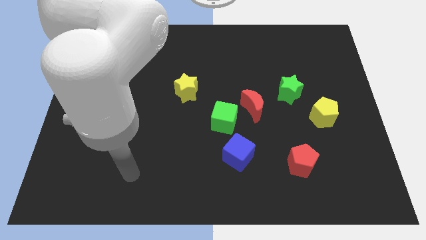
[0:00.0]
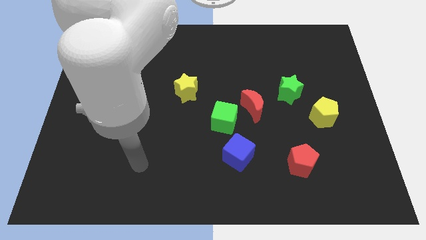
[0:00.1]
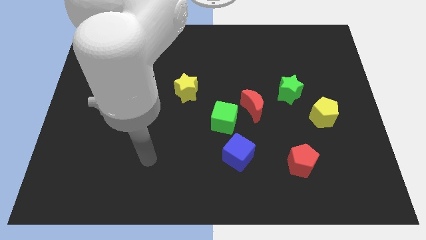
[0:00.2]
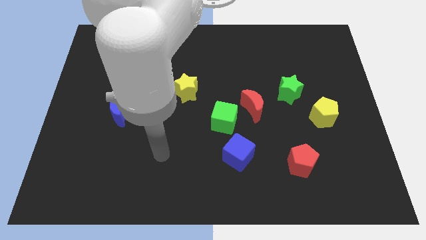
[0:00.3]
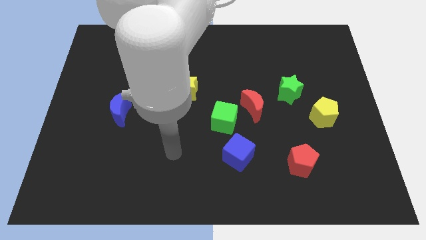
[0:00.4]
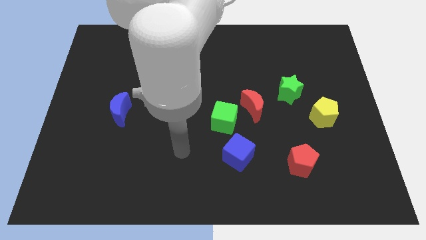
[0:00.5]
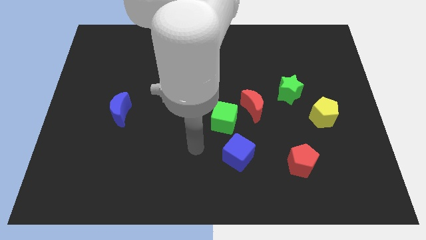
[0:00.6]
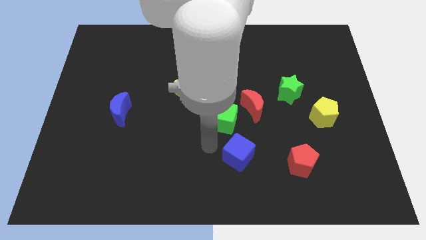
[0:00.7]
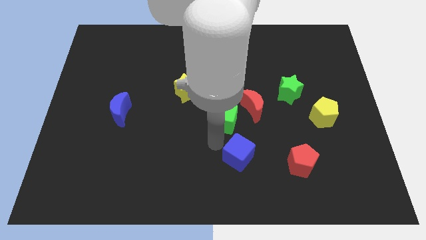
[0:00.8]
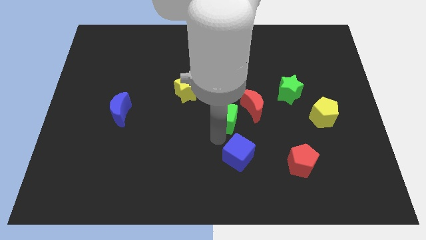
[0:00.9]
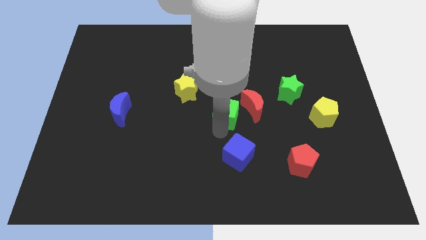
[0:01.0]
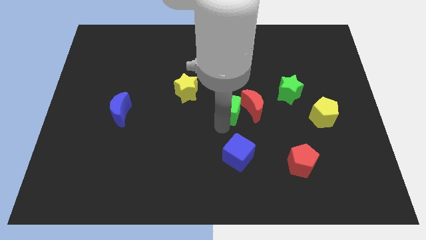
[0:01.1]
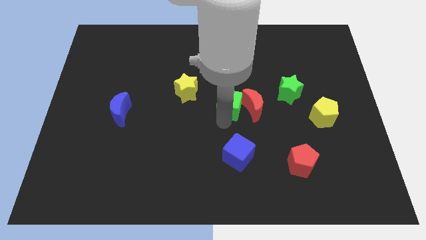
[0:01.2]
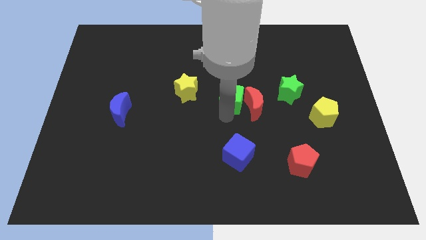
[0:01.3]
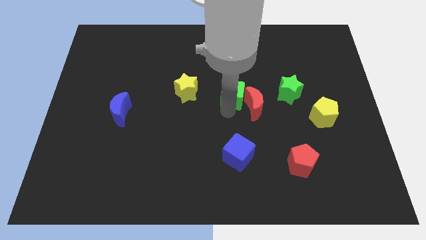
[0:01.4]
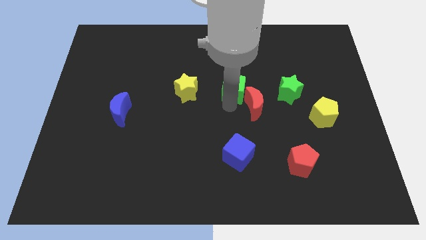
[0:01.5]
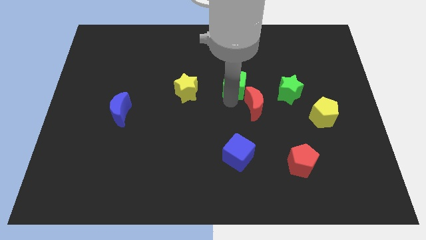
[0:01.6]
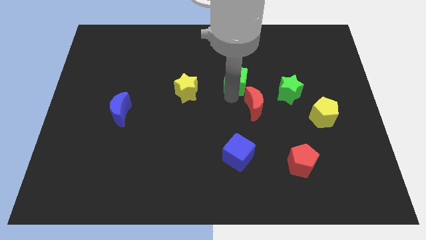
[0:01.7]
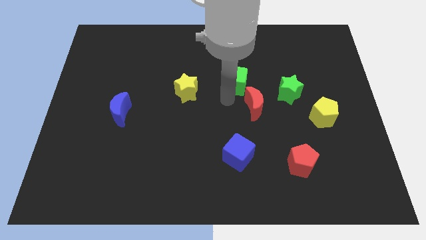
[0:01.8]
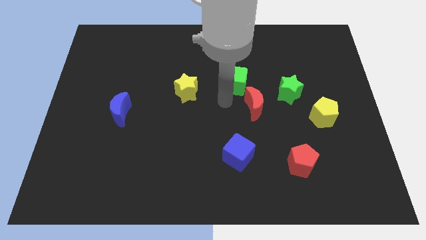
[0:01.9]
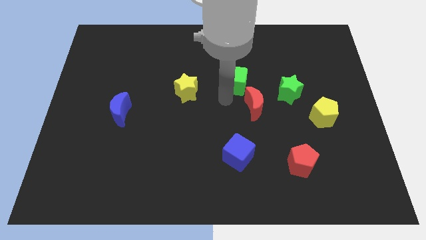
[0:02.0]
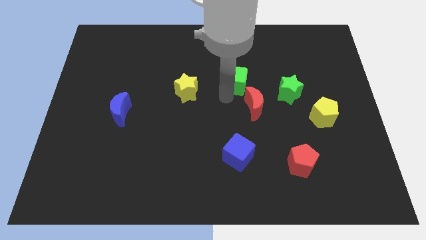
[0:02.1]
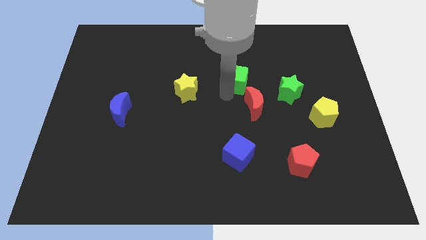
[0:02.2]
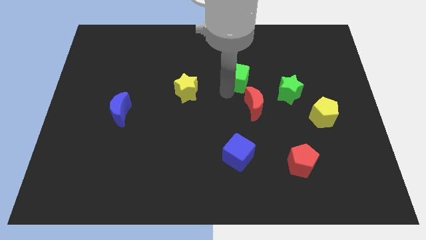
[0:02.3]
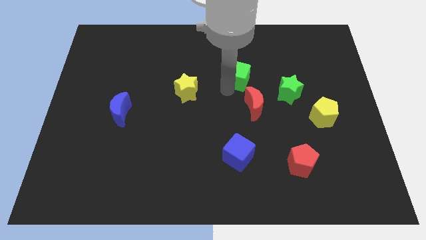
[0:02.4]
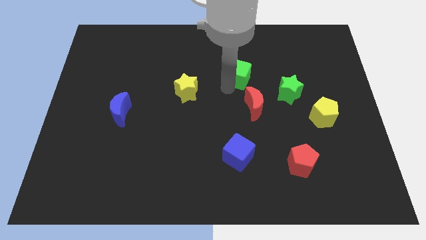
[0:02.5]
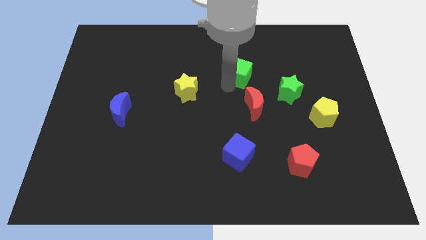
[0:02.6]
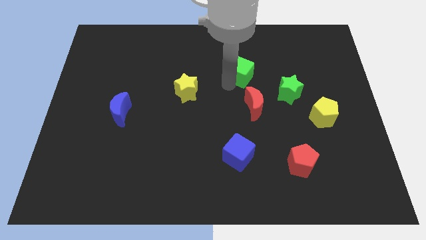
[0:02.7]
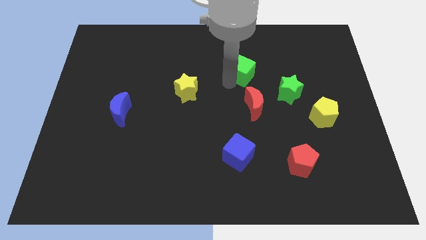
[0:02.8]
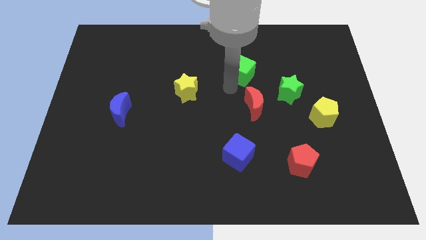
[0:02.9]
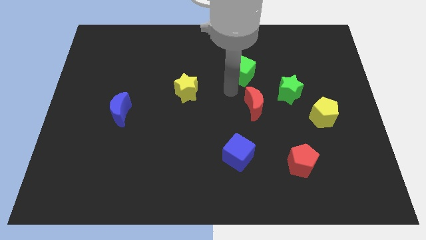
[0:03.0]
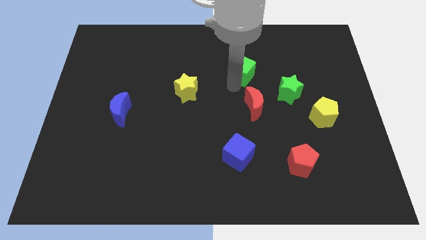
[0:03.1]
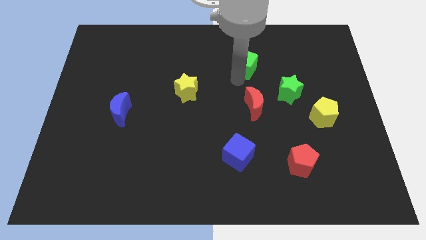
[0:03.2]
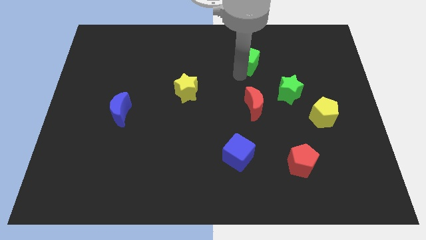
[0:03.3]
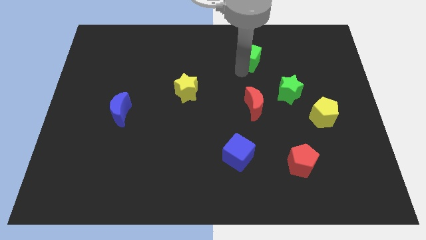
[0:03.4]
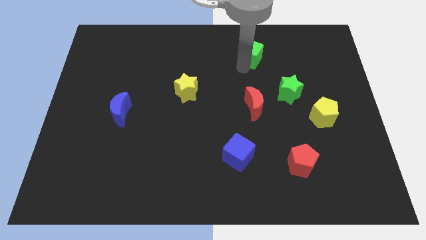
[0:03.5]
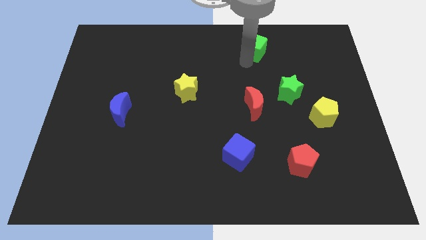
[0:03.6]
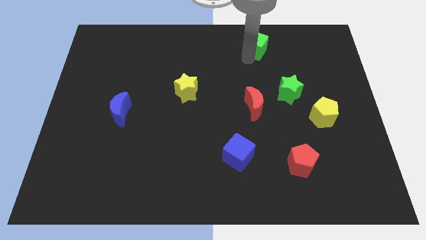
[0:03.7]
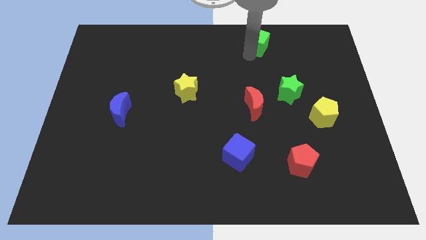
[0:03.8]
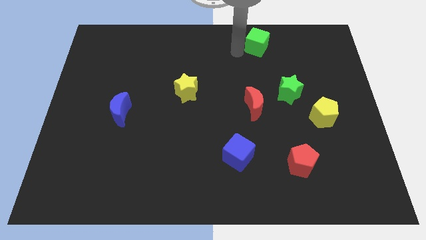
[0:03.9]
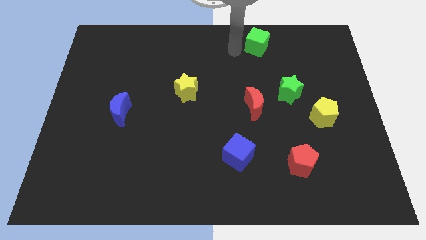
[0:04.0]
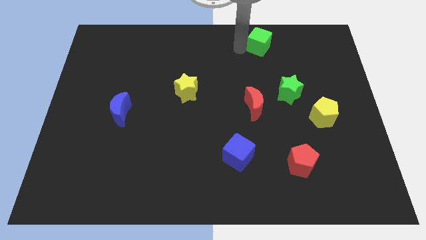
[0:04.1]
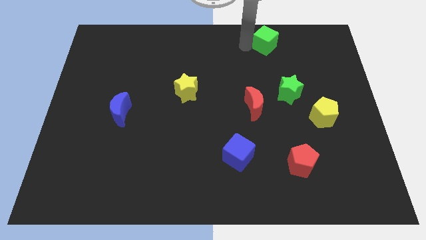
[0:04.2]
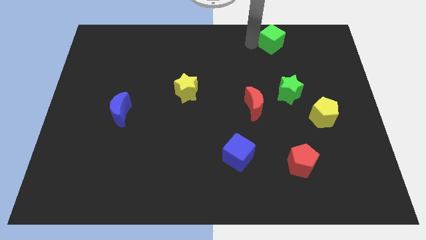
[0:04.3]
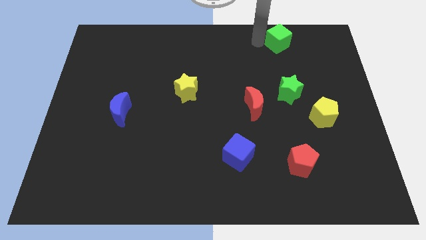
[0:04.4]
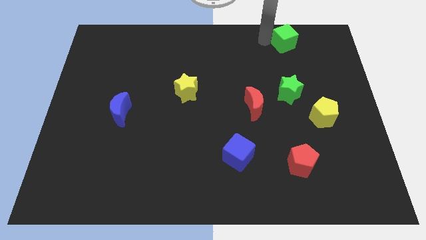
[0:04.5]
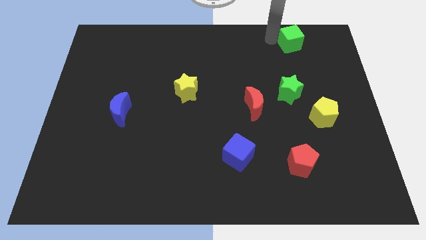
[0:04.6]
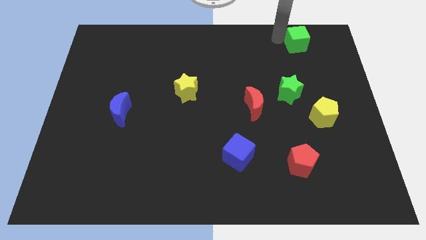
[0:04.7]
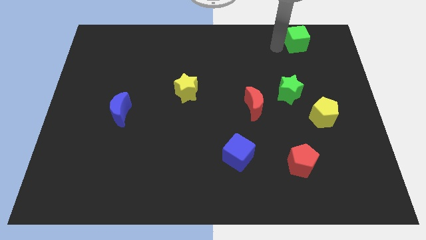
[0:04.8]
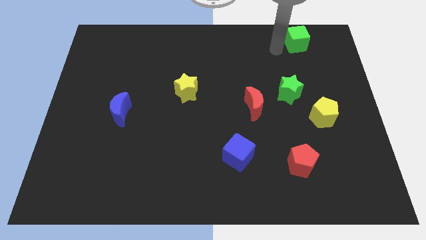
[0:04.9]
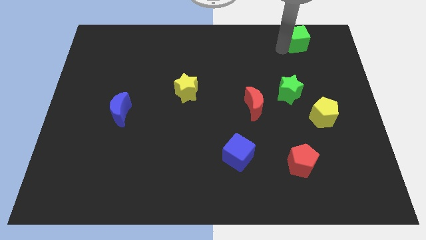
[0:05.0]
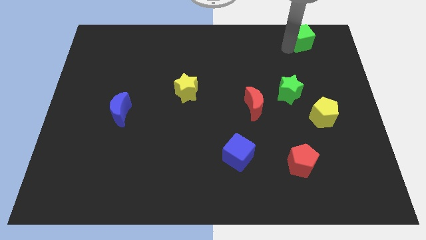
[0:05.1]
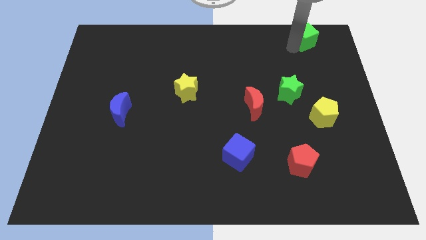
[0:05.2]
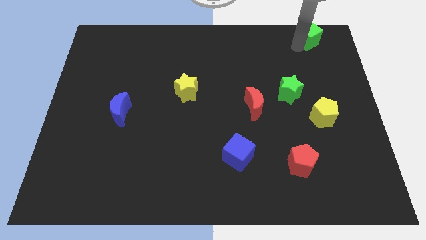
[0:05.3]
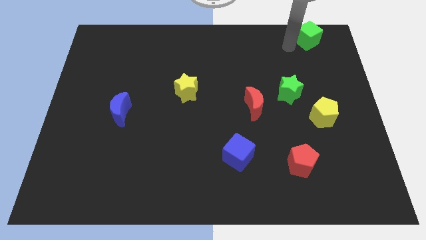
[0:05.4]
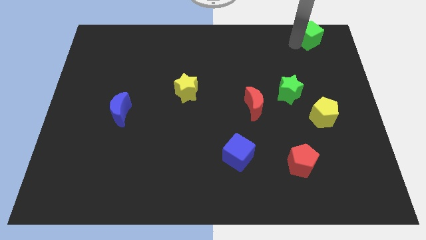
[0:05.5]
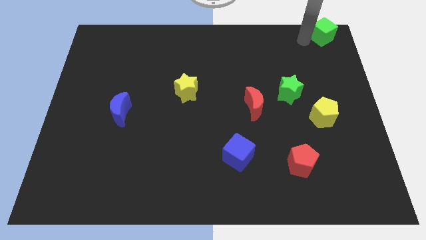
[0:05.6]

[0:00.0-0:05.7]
put the green cube to the top right corner
